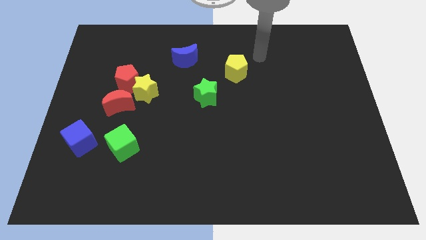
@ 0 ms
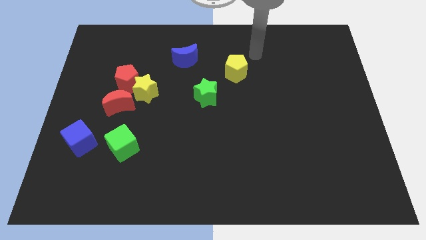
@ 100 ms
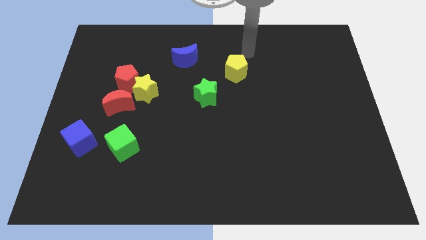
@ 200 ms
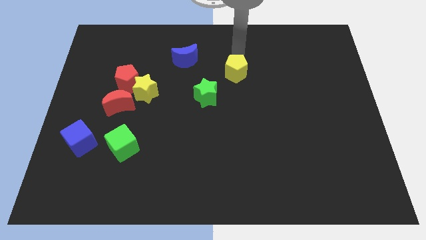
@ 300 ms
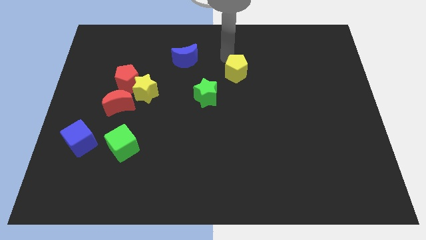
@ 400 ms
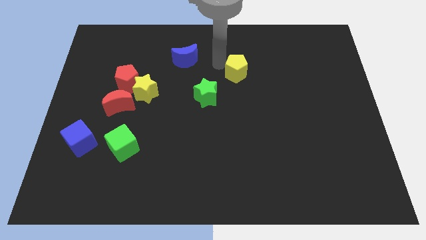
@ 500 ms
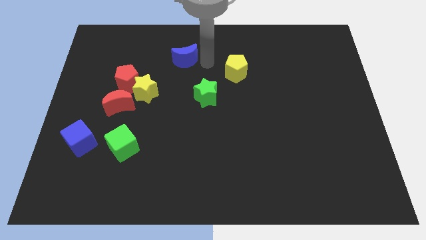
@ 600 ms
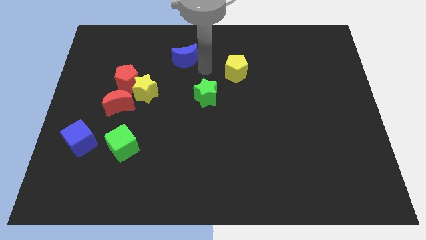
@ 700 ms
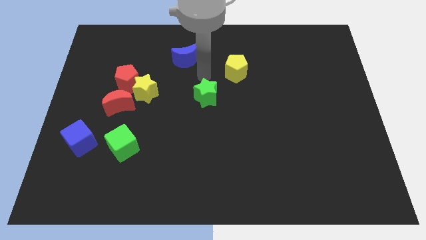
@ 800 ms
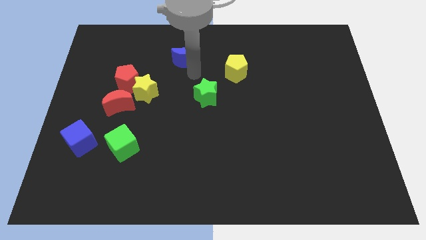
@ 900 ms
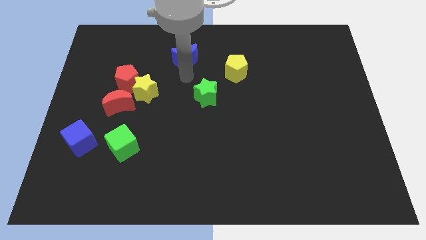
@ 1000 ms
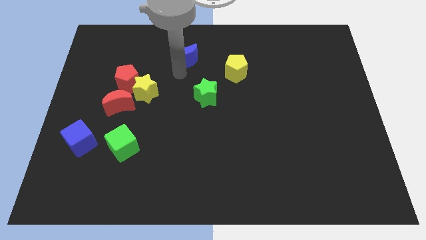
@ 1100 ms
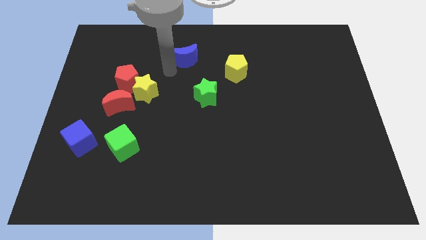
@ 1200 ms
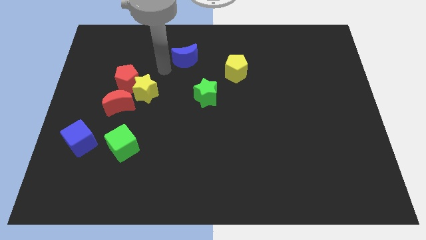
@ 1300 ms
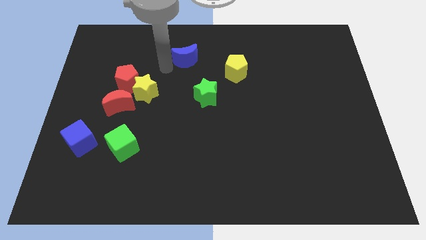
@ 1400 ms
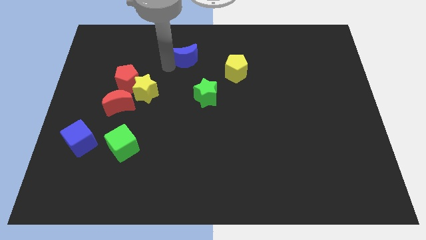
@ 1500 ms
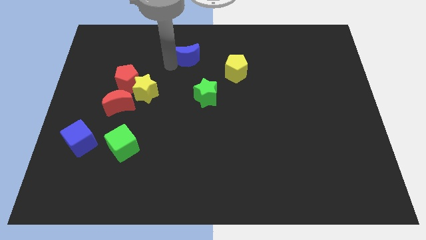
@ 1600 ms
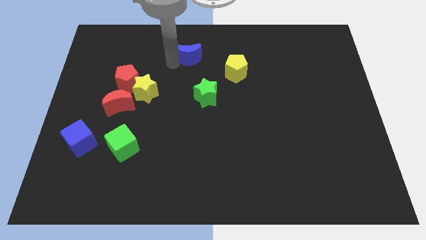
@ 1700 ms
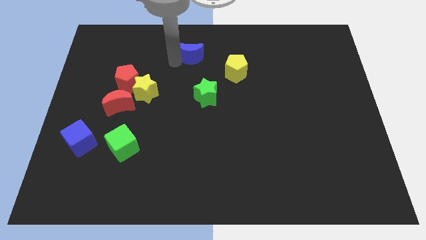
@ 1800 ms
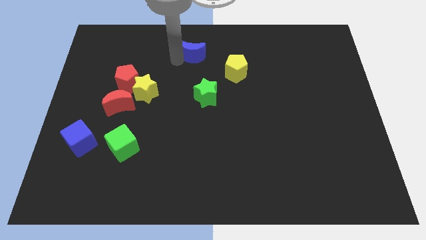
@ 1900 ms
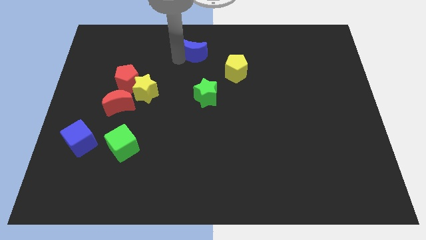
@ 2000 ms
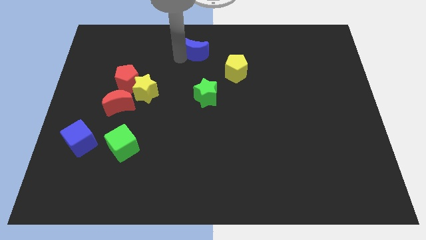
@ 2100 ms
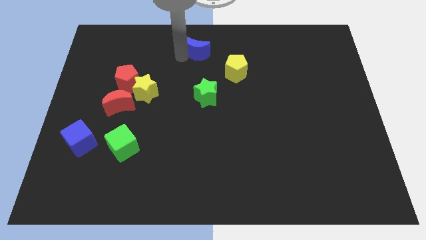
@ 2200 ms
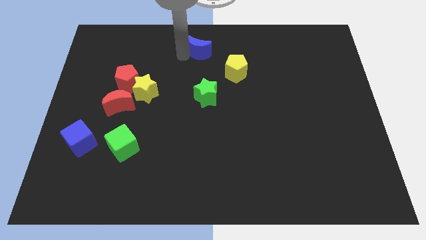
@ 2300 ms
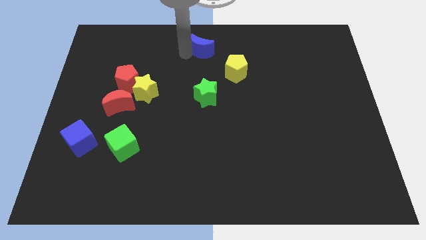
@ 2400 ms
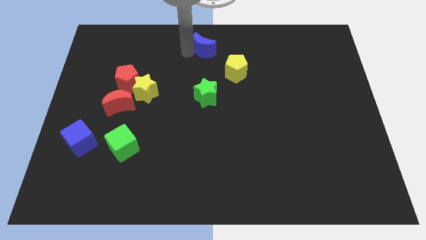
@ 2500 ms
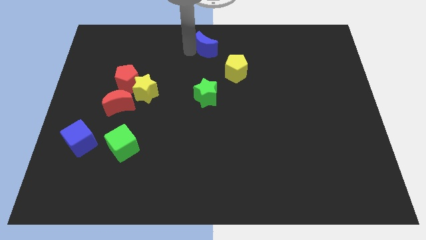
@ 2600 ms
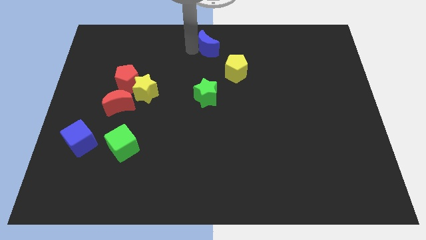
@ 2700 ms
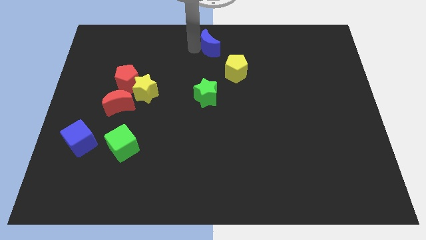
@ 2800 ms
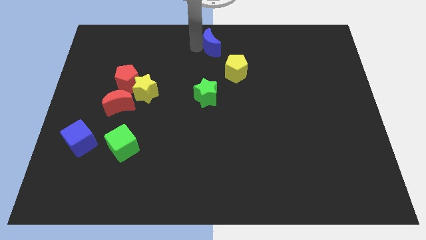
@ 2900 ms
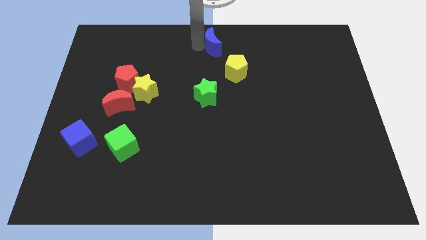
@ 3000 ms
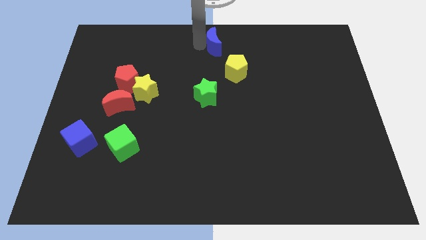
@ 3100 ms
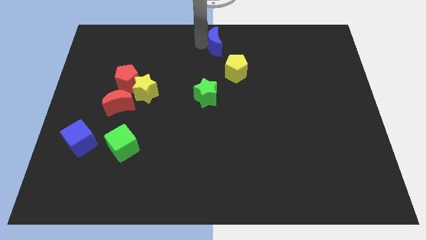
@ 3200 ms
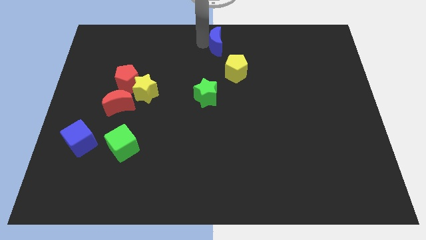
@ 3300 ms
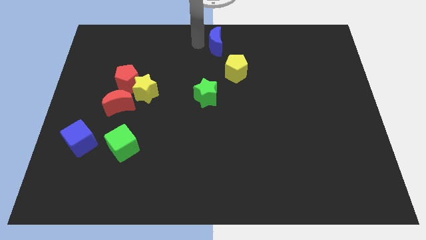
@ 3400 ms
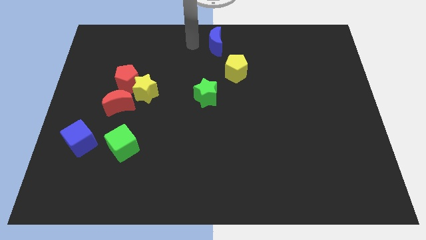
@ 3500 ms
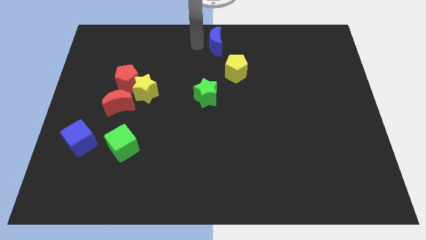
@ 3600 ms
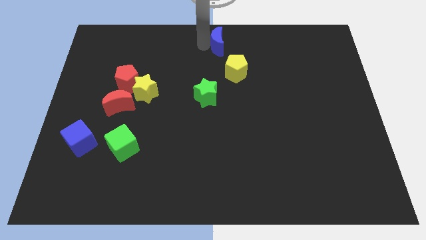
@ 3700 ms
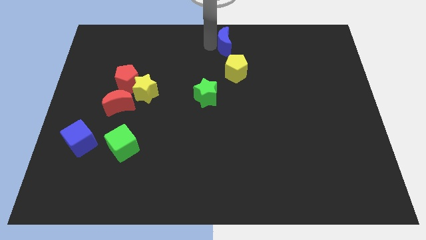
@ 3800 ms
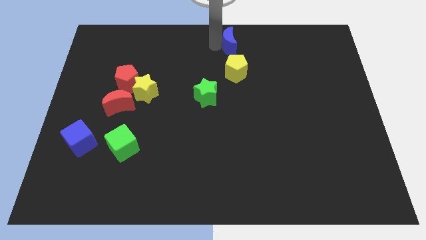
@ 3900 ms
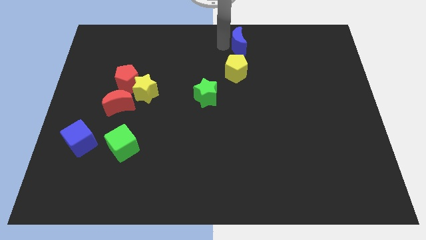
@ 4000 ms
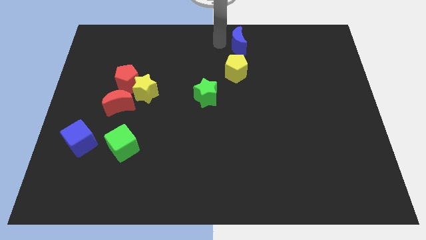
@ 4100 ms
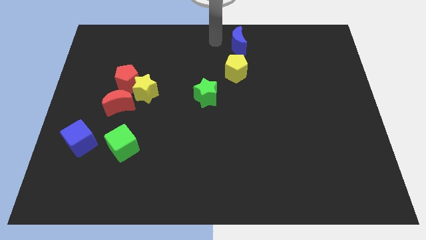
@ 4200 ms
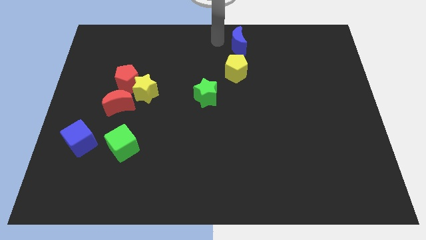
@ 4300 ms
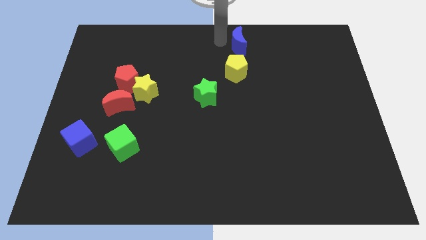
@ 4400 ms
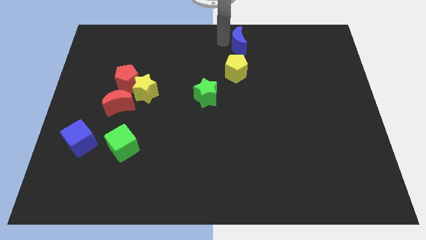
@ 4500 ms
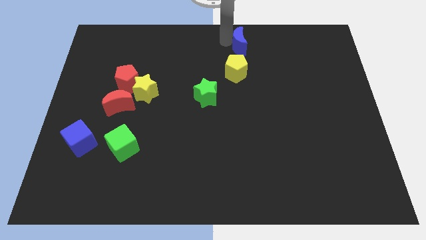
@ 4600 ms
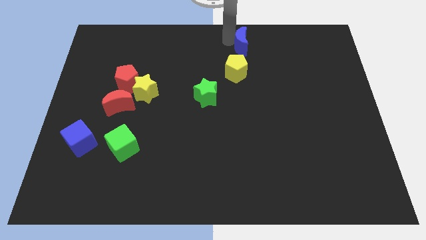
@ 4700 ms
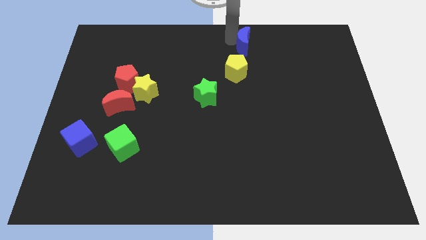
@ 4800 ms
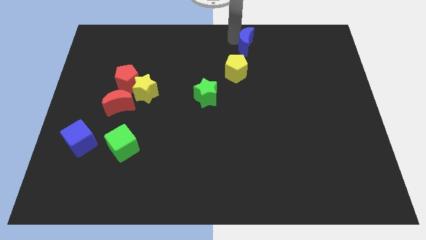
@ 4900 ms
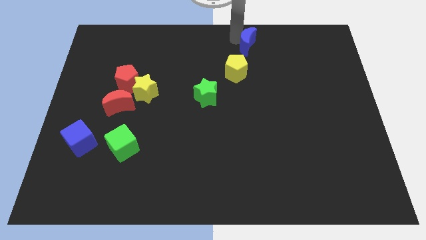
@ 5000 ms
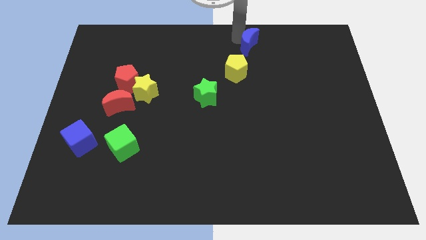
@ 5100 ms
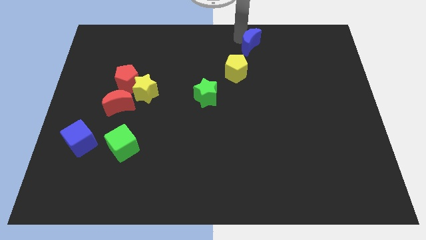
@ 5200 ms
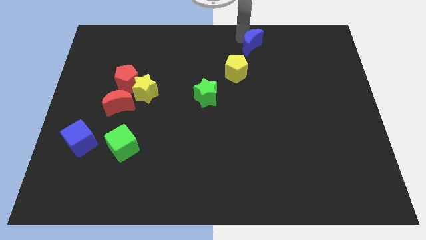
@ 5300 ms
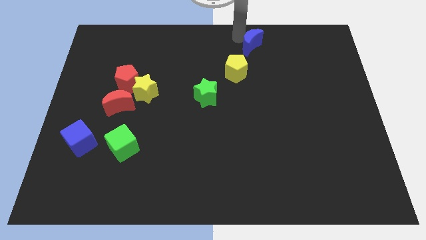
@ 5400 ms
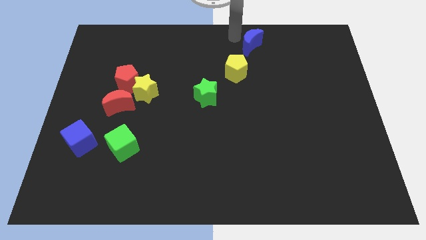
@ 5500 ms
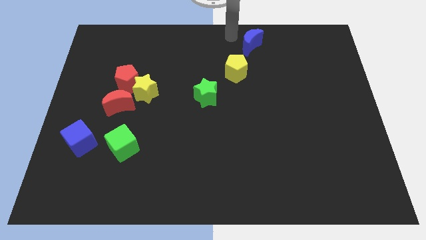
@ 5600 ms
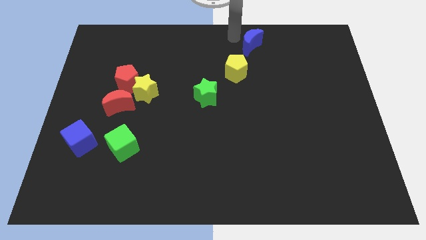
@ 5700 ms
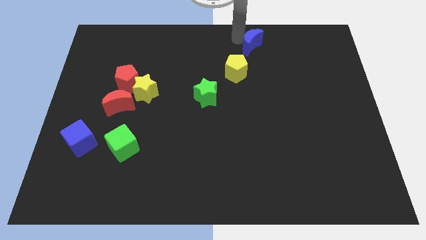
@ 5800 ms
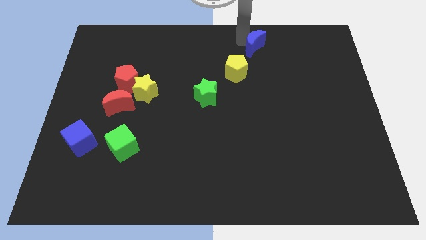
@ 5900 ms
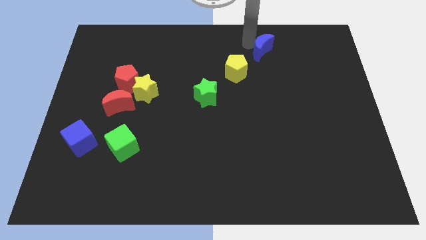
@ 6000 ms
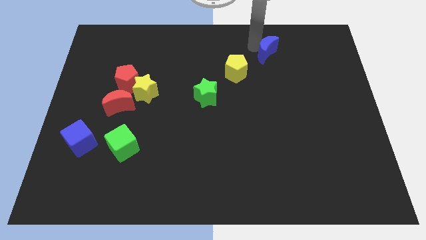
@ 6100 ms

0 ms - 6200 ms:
slide the blue moon right

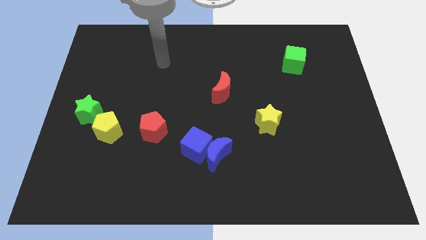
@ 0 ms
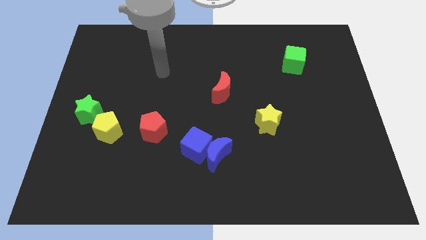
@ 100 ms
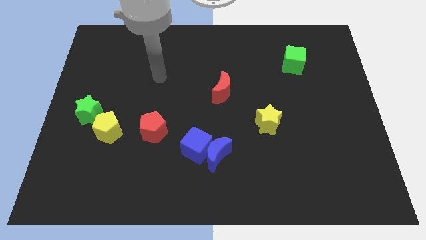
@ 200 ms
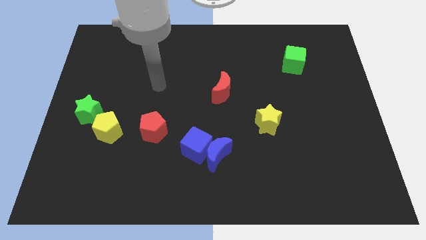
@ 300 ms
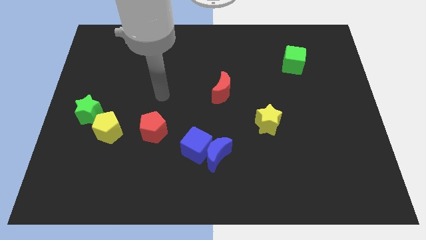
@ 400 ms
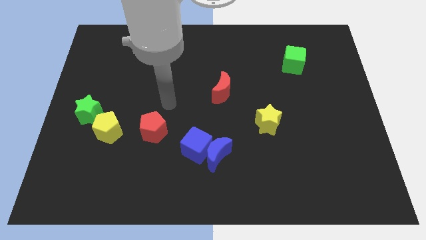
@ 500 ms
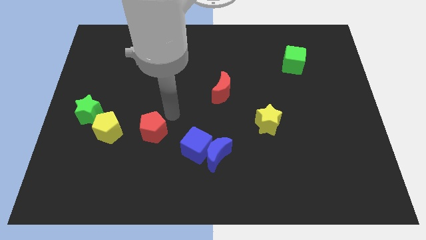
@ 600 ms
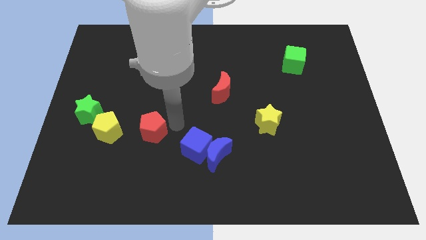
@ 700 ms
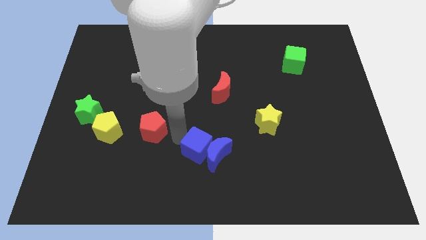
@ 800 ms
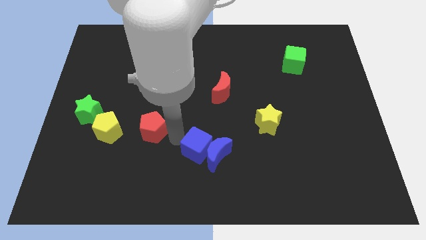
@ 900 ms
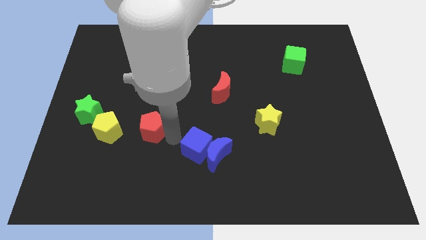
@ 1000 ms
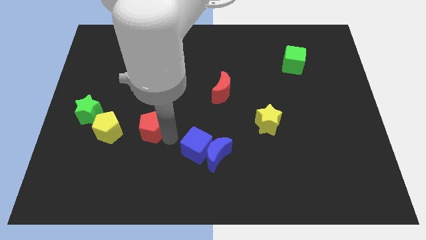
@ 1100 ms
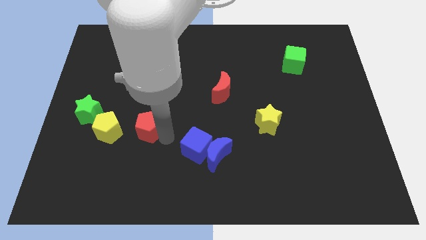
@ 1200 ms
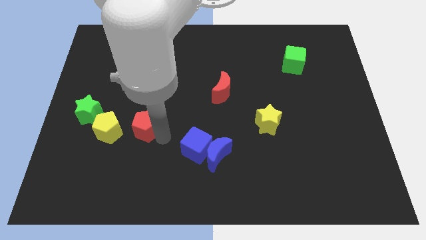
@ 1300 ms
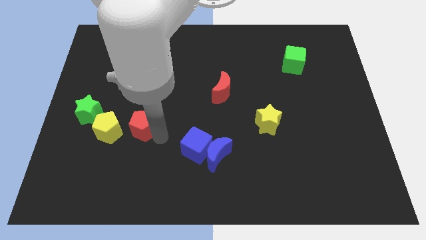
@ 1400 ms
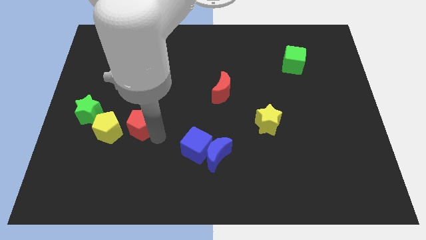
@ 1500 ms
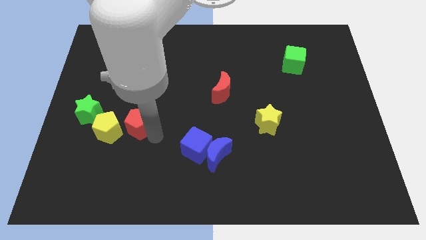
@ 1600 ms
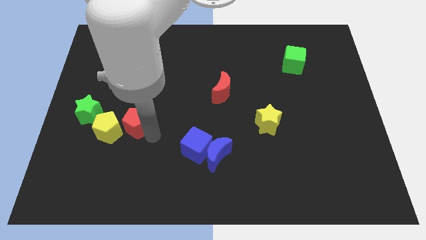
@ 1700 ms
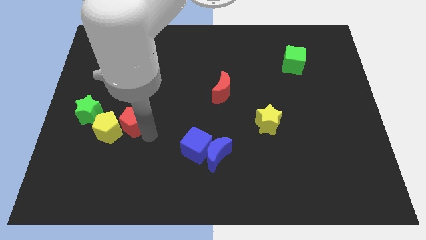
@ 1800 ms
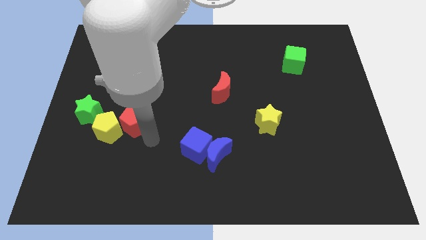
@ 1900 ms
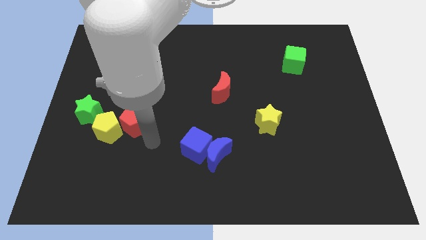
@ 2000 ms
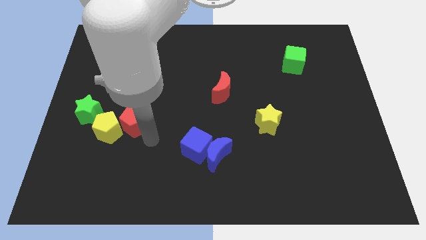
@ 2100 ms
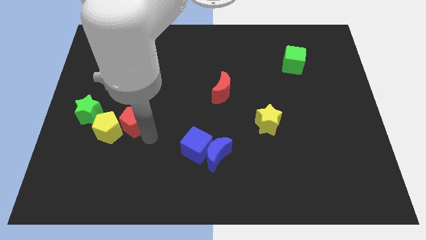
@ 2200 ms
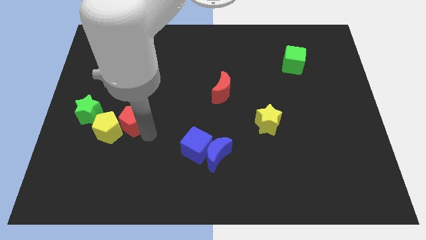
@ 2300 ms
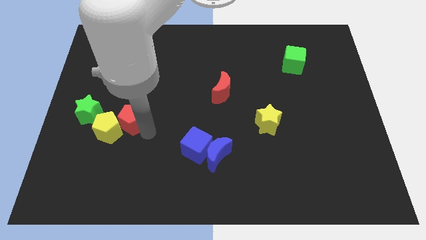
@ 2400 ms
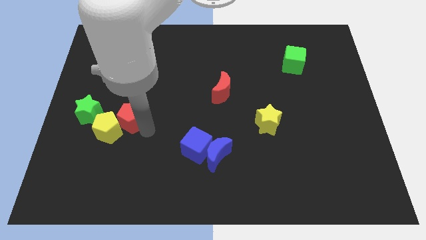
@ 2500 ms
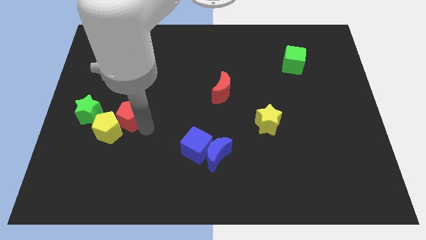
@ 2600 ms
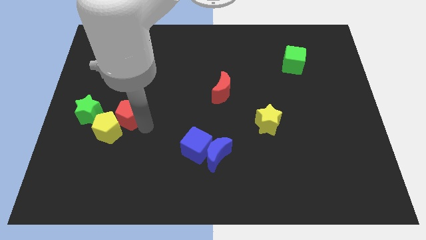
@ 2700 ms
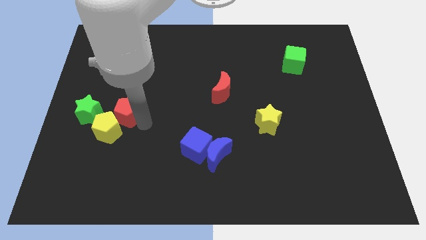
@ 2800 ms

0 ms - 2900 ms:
push the red pentagon upwards and then left a bit
